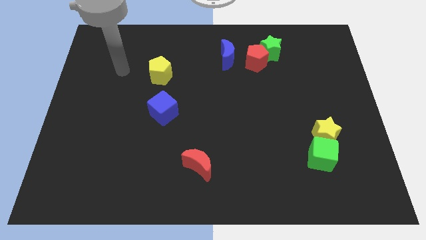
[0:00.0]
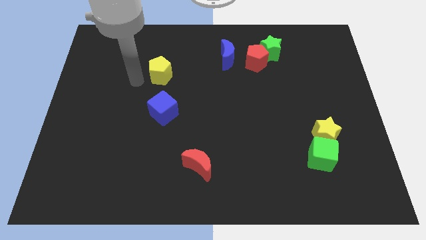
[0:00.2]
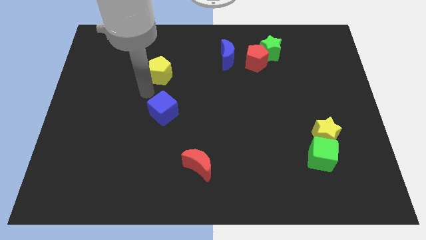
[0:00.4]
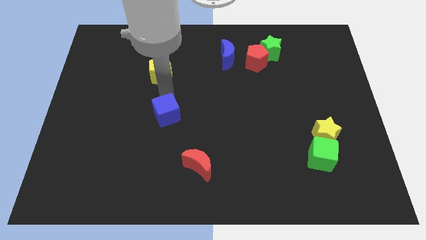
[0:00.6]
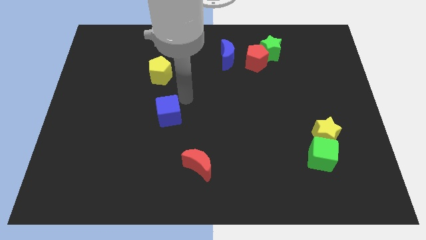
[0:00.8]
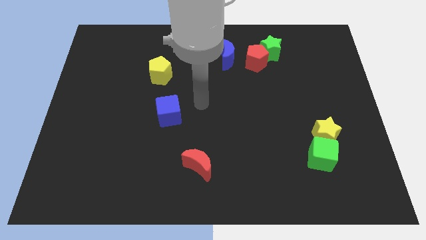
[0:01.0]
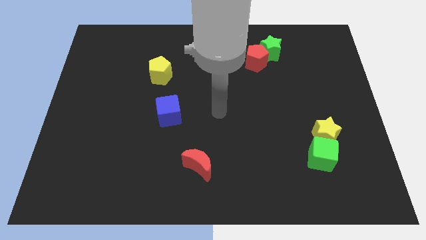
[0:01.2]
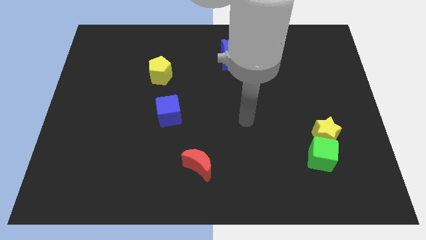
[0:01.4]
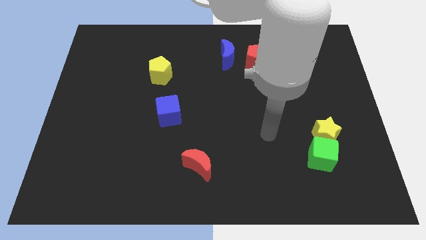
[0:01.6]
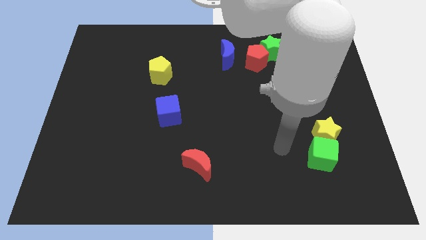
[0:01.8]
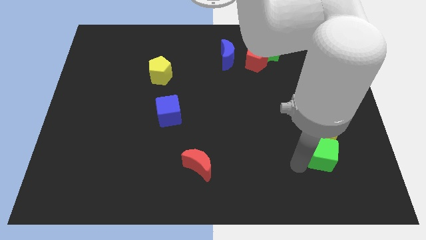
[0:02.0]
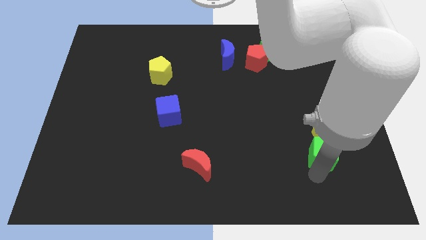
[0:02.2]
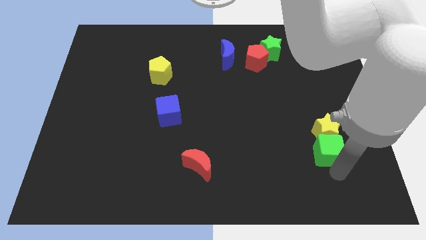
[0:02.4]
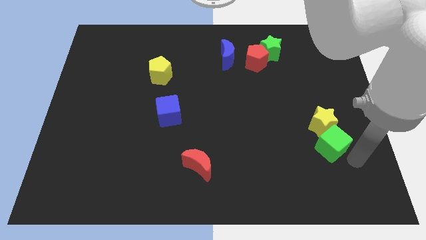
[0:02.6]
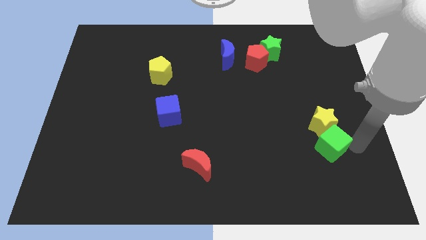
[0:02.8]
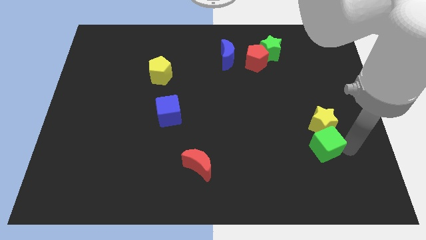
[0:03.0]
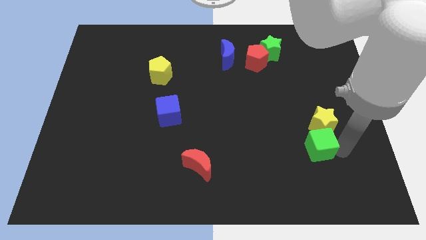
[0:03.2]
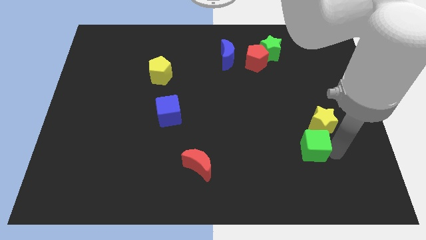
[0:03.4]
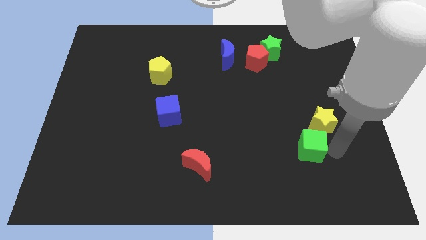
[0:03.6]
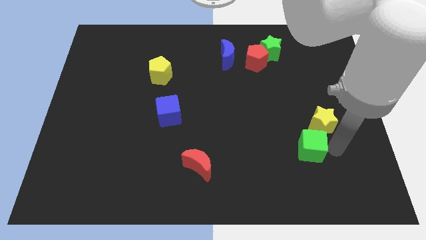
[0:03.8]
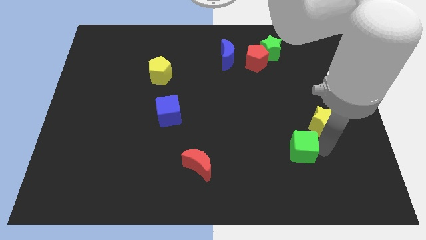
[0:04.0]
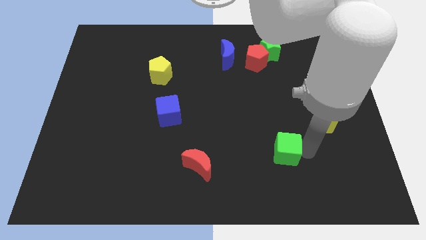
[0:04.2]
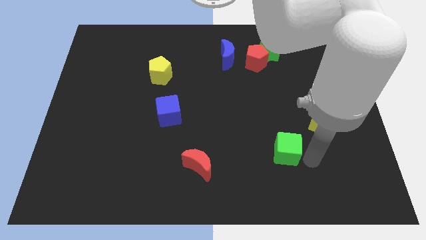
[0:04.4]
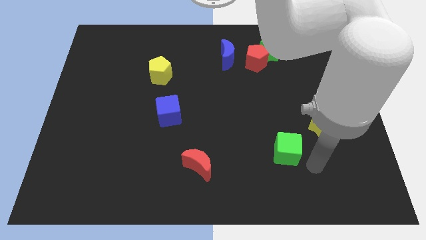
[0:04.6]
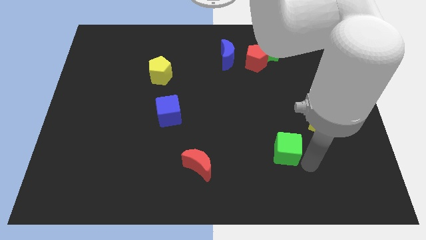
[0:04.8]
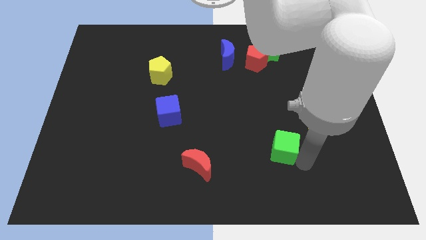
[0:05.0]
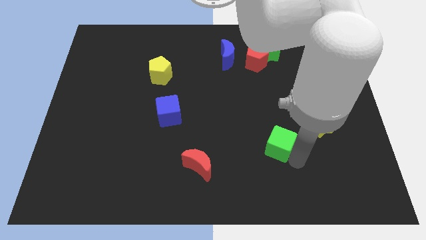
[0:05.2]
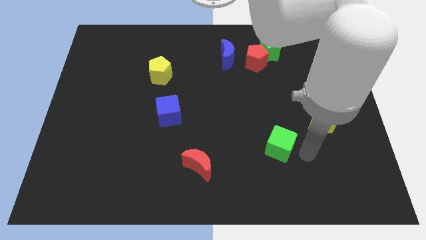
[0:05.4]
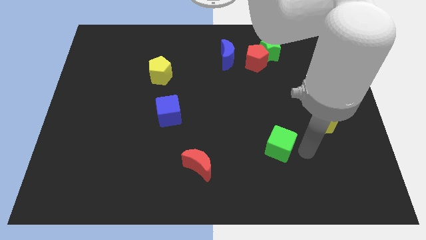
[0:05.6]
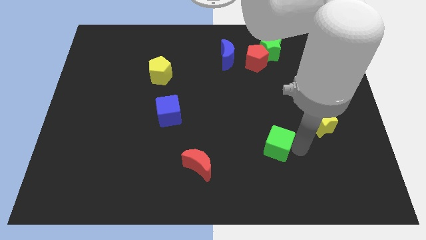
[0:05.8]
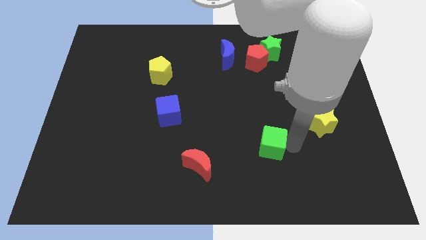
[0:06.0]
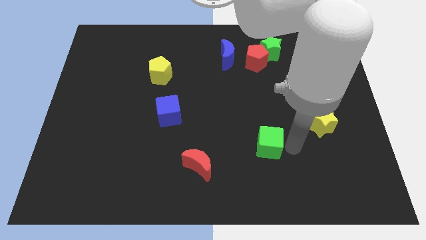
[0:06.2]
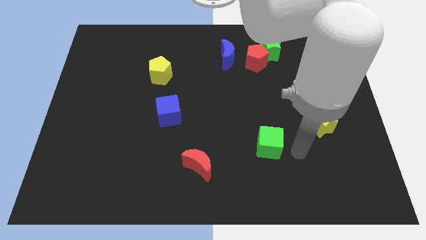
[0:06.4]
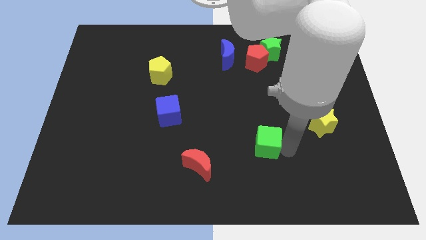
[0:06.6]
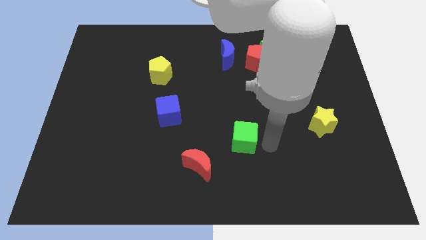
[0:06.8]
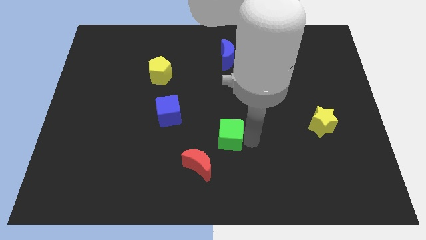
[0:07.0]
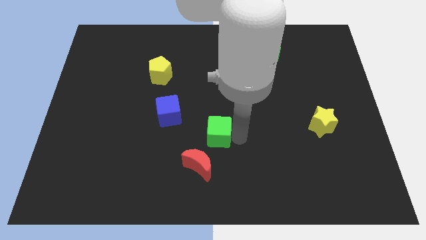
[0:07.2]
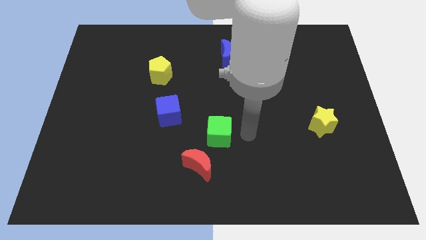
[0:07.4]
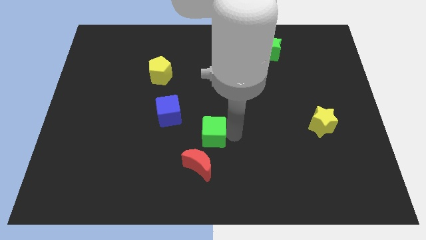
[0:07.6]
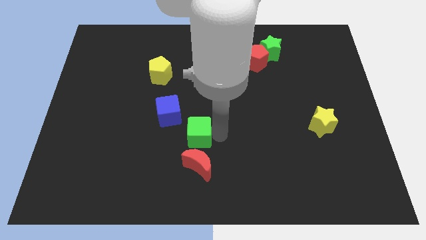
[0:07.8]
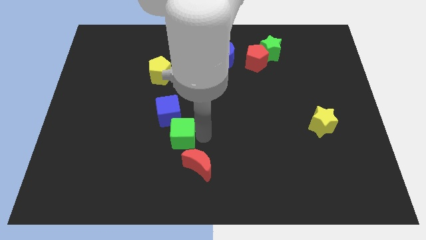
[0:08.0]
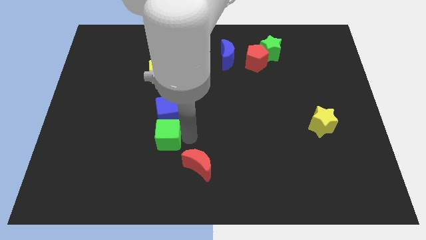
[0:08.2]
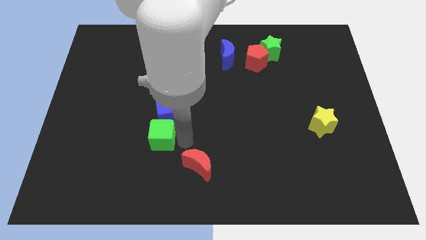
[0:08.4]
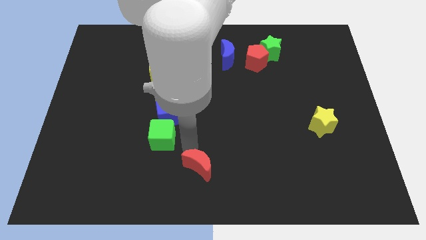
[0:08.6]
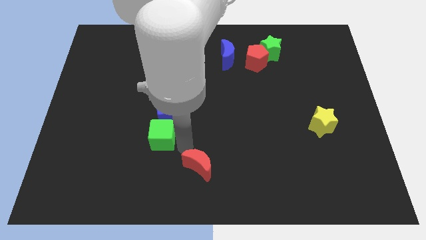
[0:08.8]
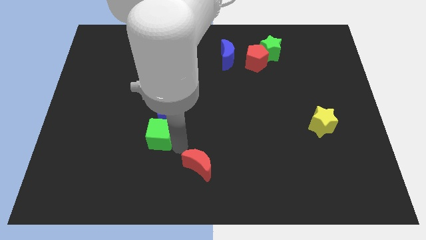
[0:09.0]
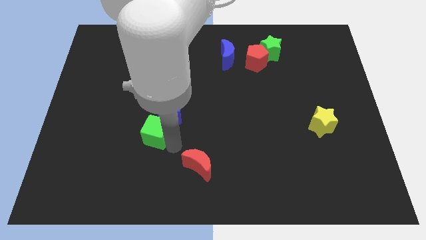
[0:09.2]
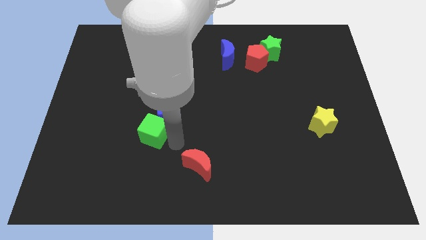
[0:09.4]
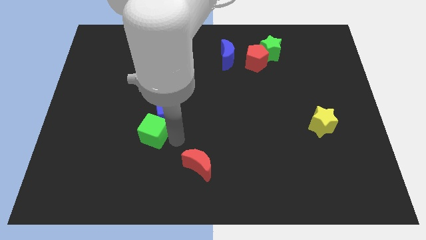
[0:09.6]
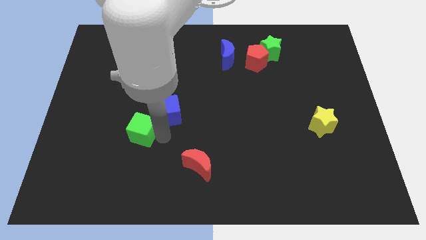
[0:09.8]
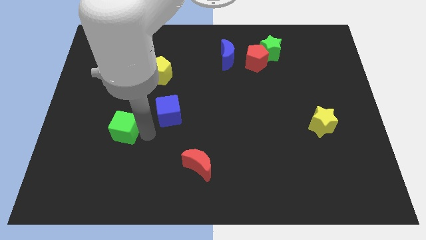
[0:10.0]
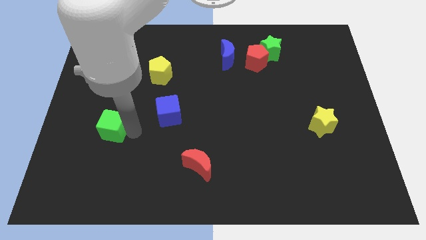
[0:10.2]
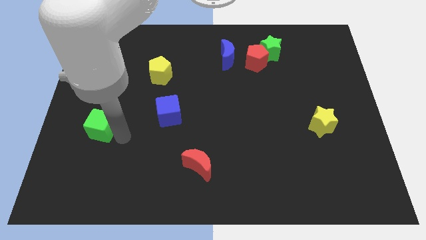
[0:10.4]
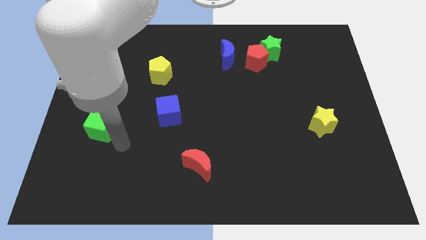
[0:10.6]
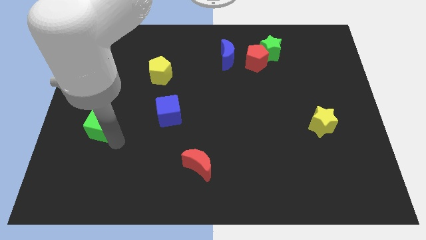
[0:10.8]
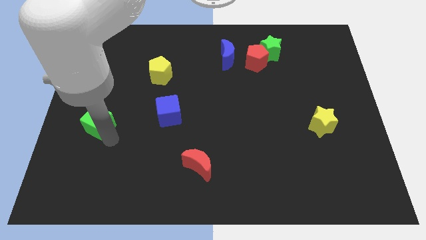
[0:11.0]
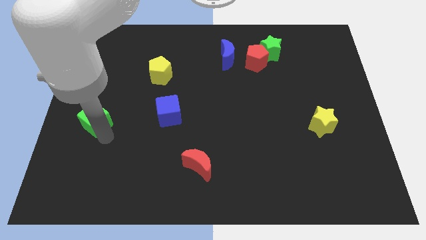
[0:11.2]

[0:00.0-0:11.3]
slide the green cube to the left side of the board
